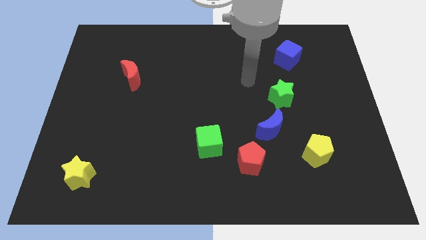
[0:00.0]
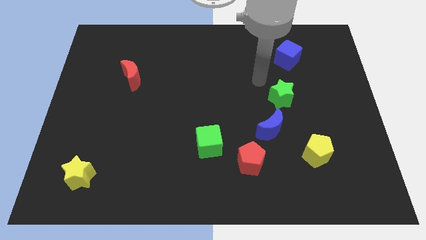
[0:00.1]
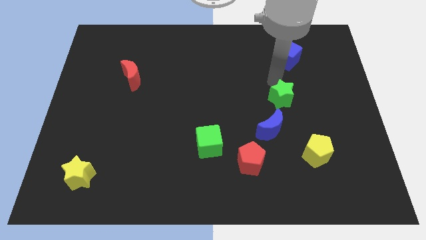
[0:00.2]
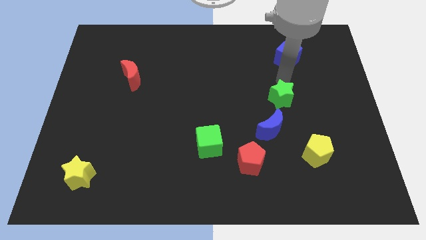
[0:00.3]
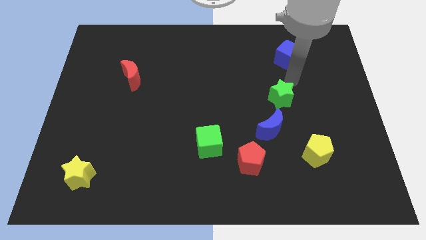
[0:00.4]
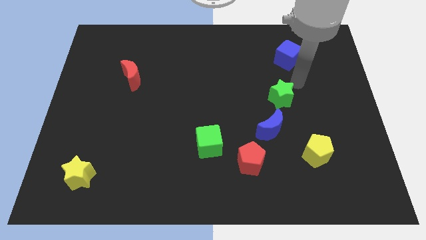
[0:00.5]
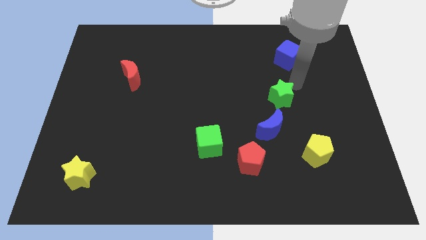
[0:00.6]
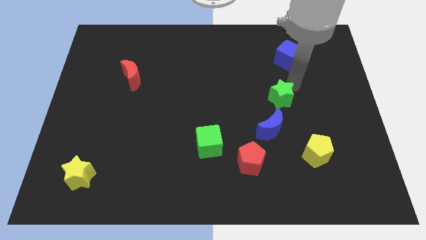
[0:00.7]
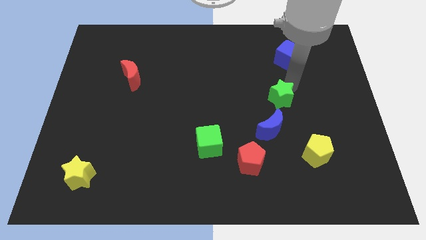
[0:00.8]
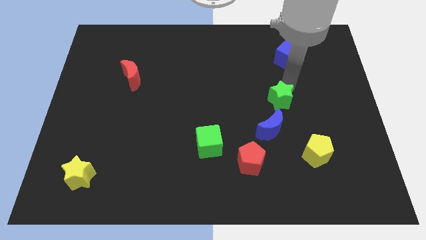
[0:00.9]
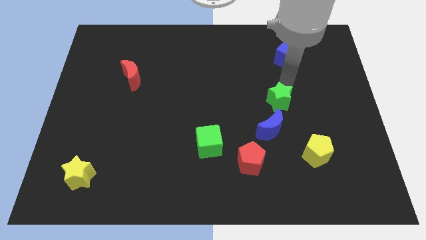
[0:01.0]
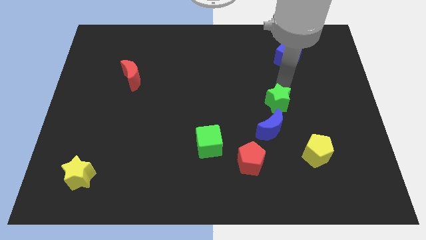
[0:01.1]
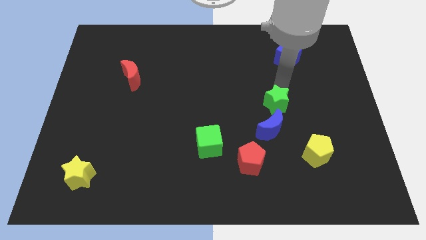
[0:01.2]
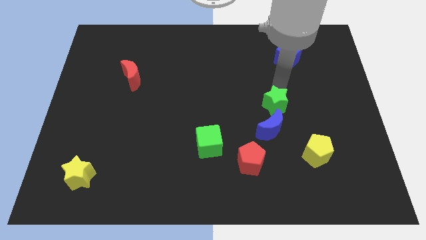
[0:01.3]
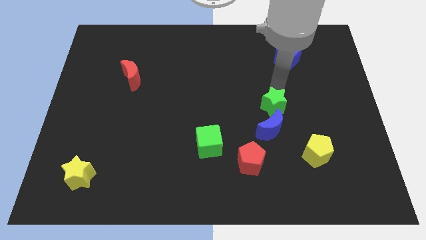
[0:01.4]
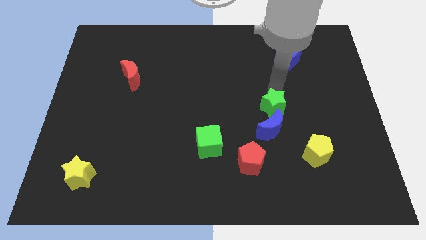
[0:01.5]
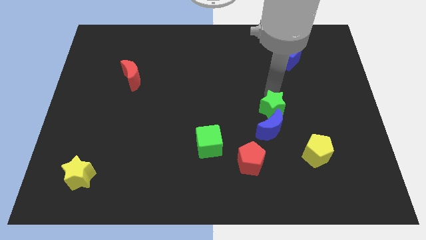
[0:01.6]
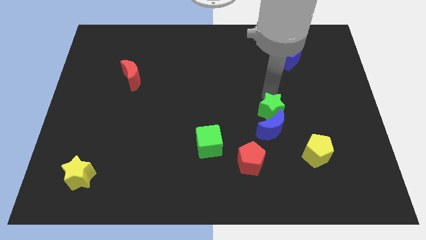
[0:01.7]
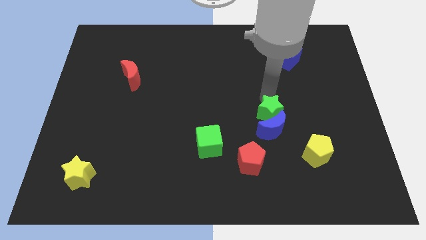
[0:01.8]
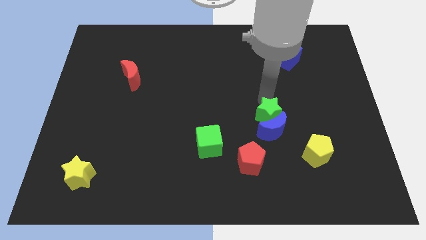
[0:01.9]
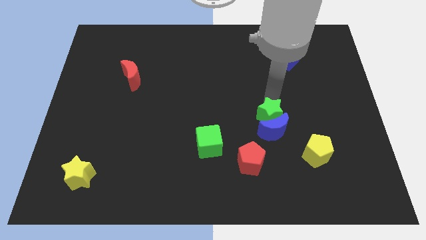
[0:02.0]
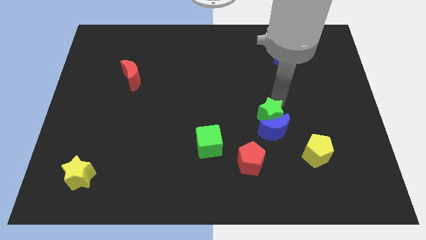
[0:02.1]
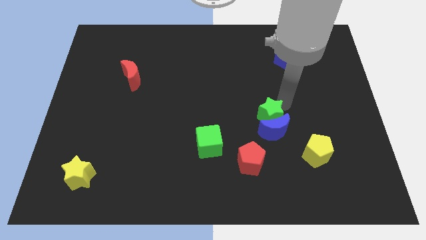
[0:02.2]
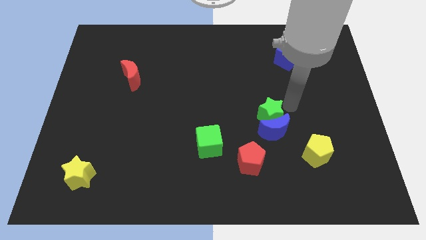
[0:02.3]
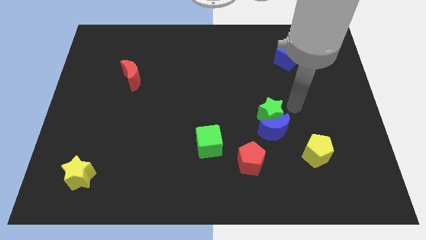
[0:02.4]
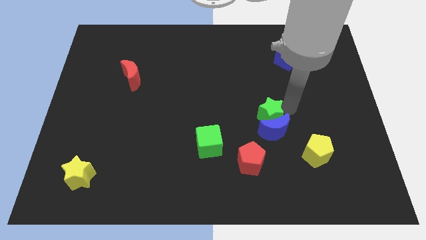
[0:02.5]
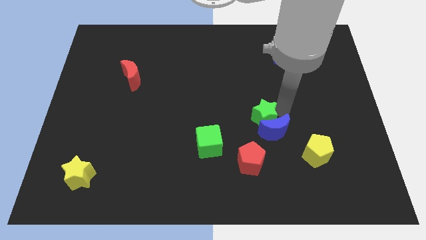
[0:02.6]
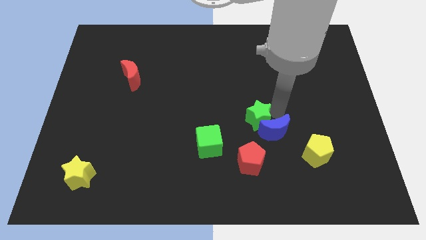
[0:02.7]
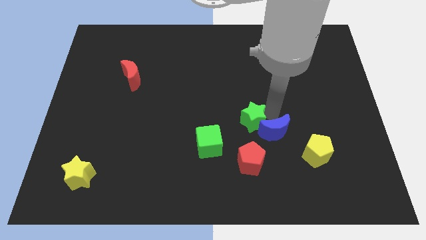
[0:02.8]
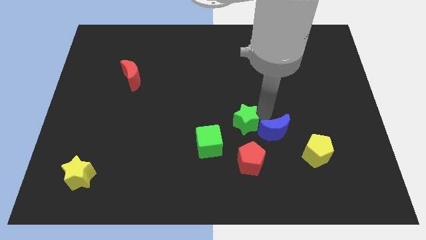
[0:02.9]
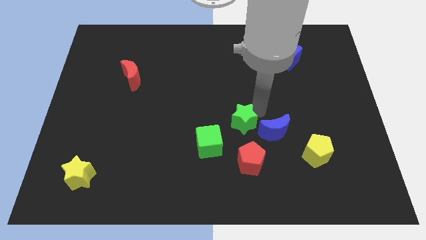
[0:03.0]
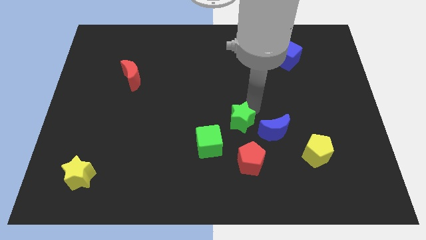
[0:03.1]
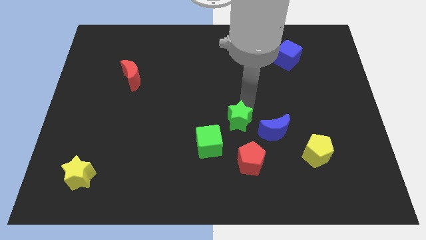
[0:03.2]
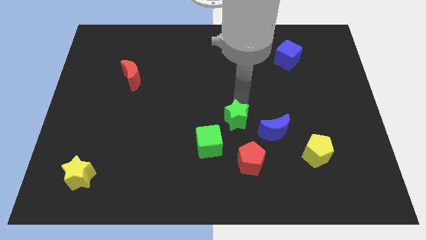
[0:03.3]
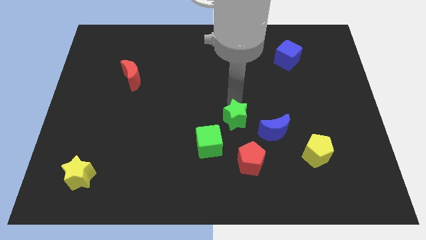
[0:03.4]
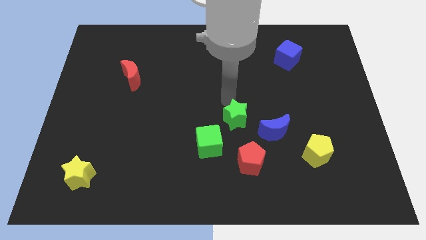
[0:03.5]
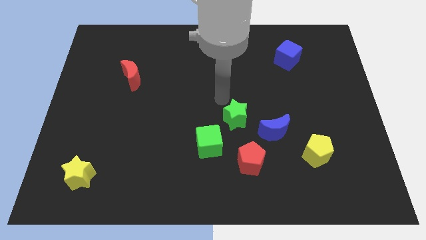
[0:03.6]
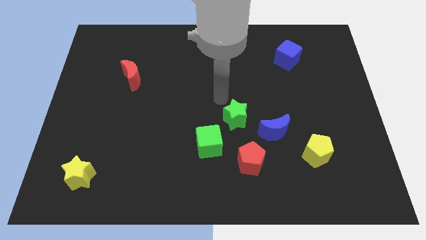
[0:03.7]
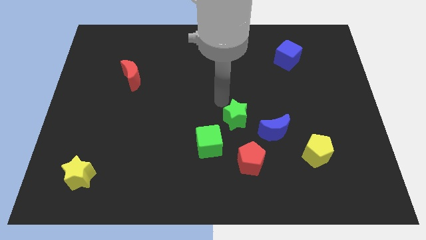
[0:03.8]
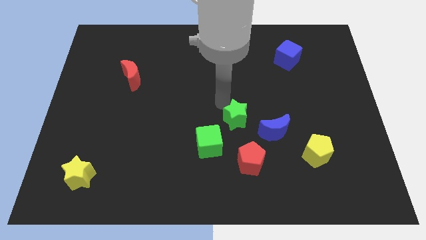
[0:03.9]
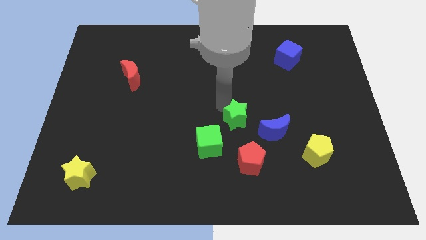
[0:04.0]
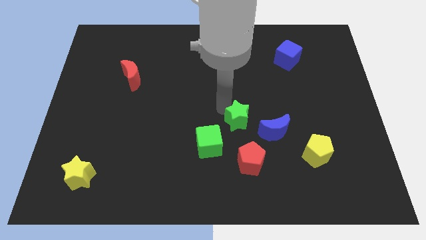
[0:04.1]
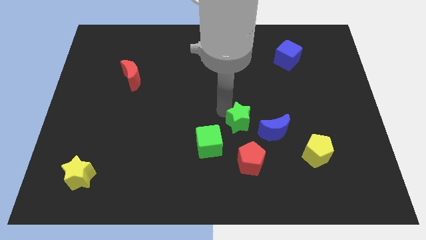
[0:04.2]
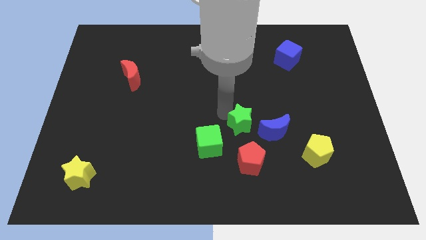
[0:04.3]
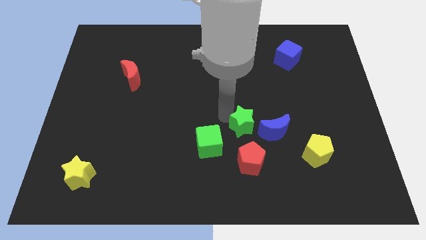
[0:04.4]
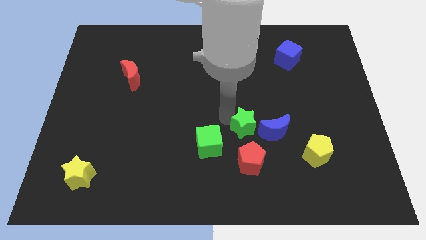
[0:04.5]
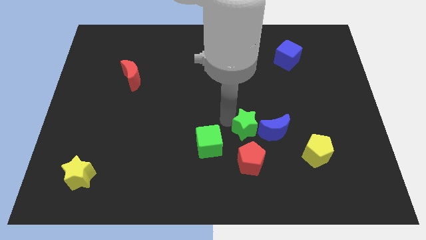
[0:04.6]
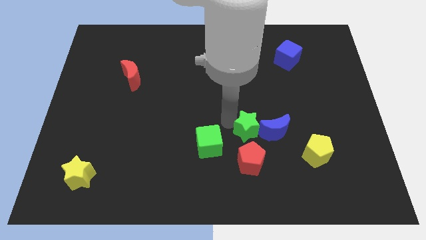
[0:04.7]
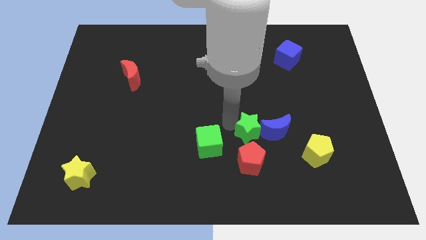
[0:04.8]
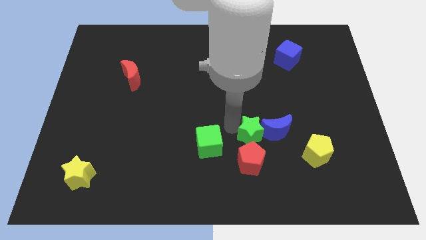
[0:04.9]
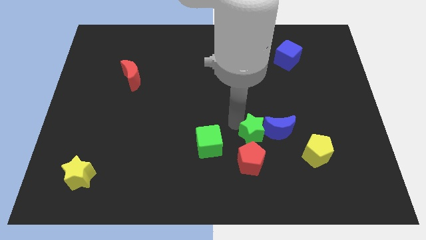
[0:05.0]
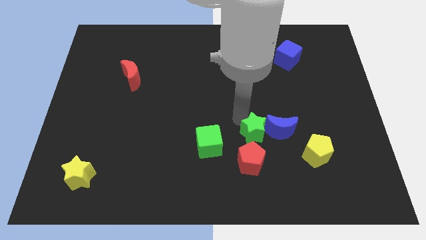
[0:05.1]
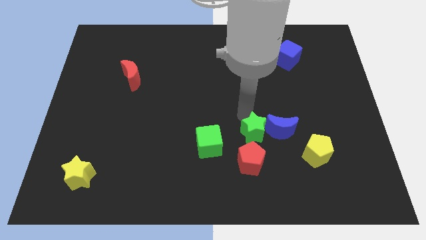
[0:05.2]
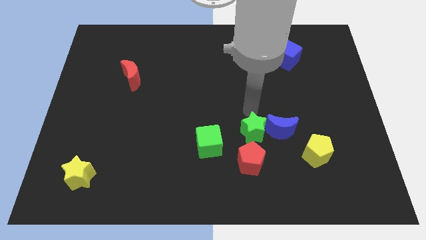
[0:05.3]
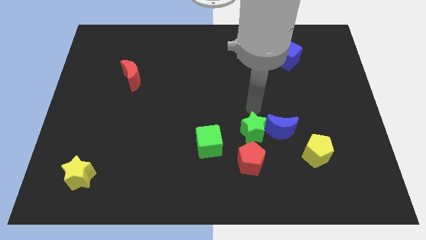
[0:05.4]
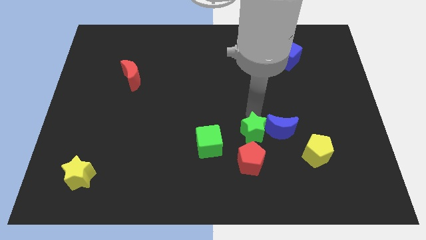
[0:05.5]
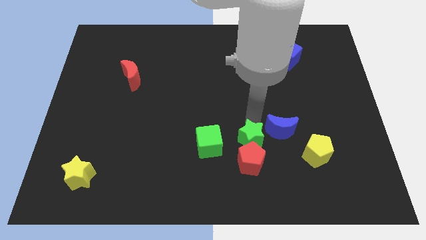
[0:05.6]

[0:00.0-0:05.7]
move the green star to the red pentagon
